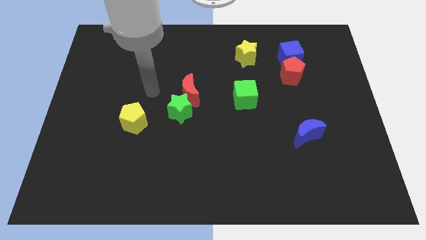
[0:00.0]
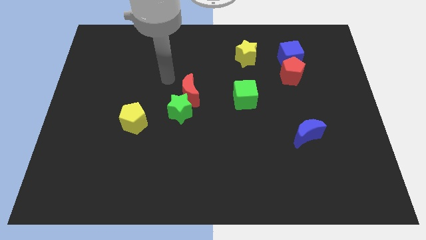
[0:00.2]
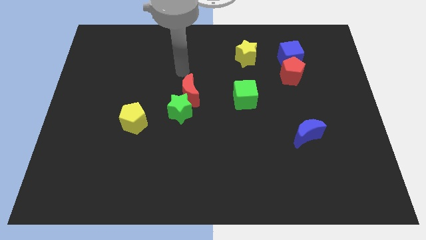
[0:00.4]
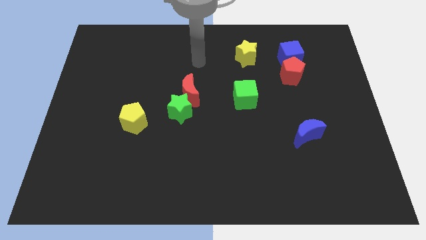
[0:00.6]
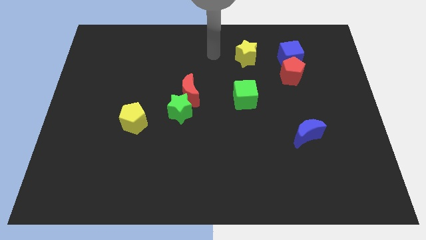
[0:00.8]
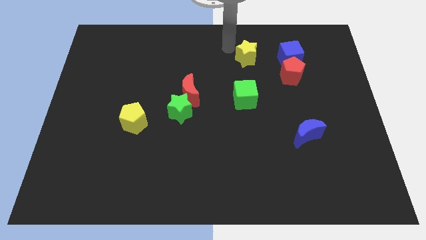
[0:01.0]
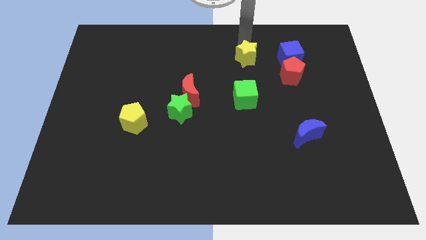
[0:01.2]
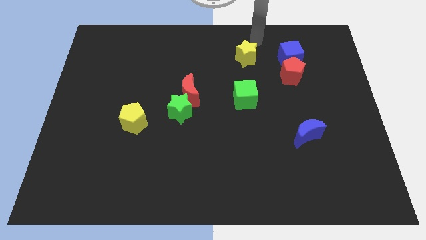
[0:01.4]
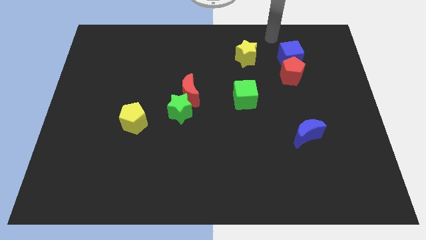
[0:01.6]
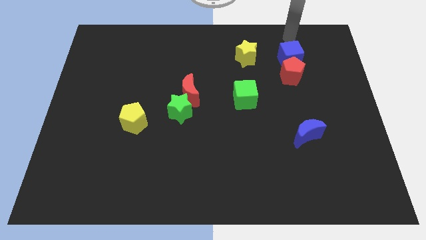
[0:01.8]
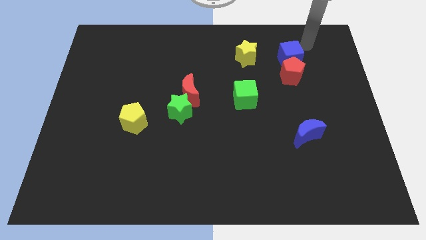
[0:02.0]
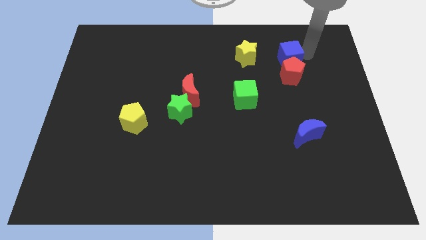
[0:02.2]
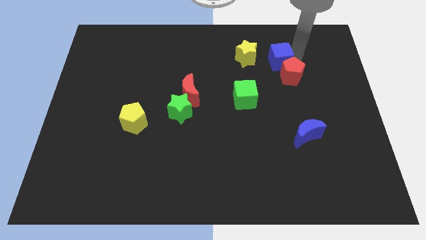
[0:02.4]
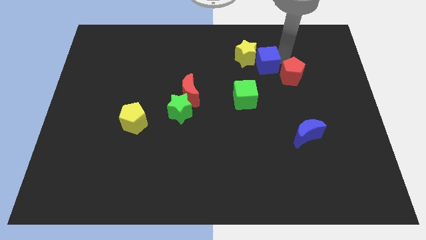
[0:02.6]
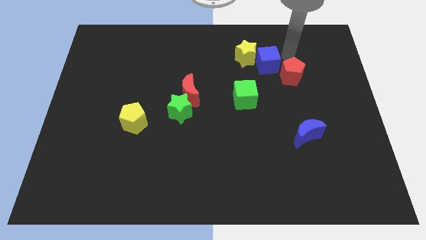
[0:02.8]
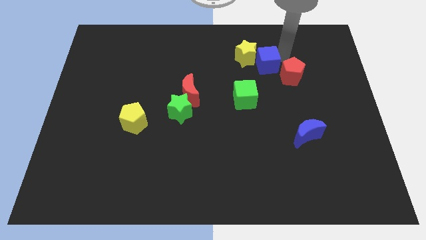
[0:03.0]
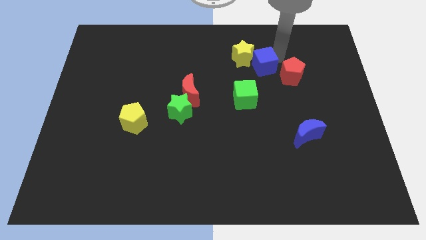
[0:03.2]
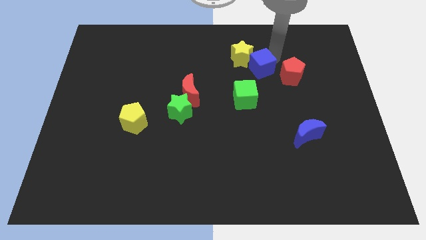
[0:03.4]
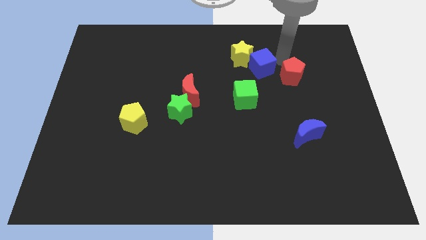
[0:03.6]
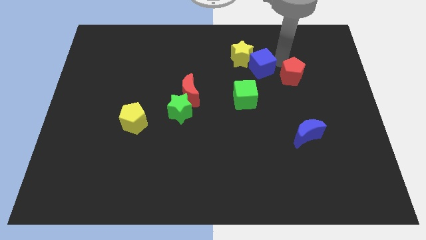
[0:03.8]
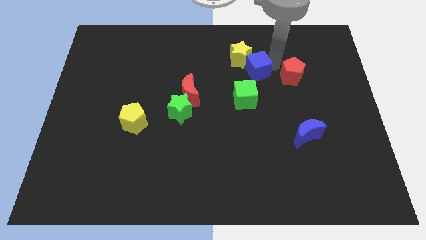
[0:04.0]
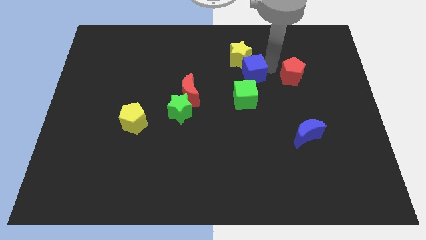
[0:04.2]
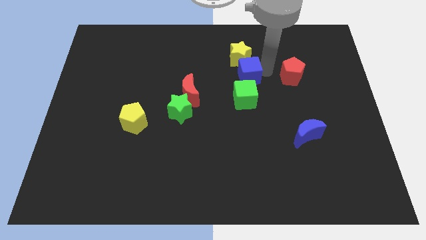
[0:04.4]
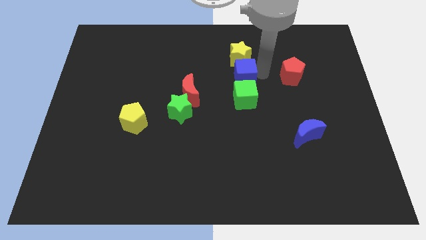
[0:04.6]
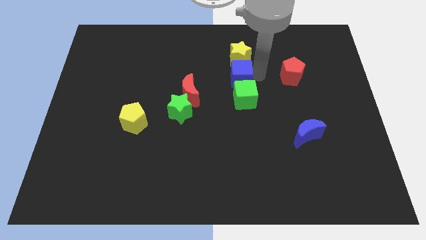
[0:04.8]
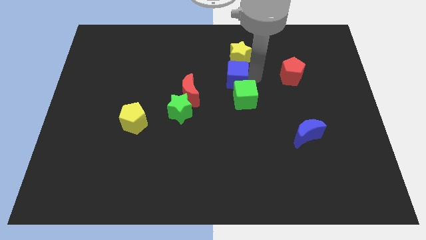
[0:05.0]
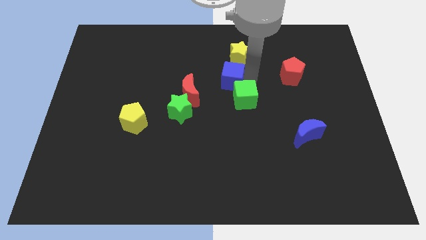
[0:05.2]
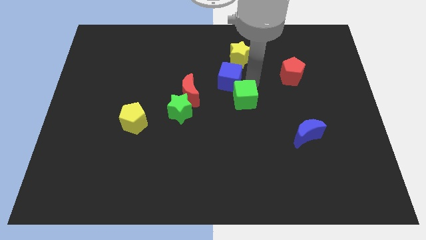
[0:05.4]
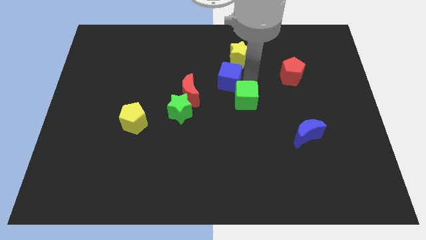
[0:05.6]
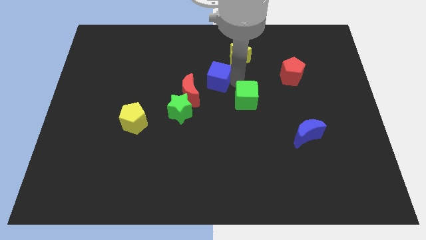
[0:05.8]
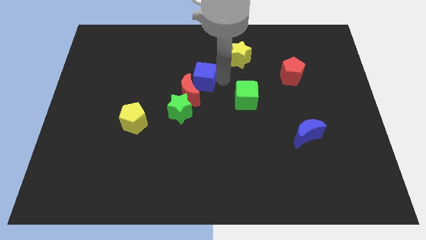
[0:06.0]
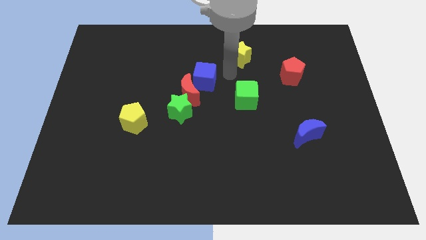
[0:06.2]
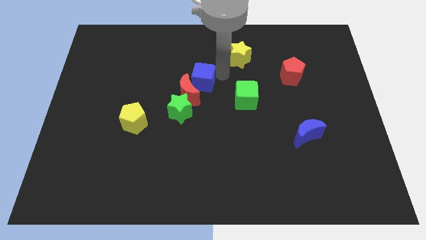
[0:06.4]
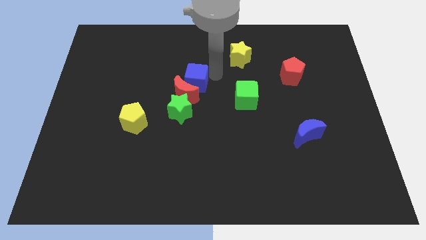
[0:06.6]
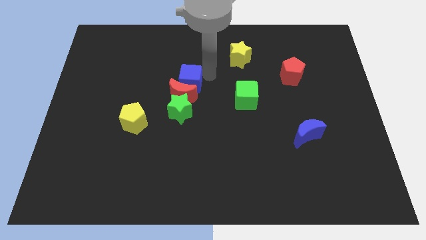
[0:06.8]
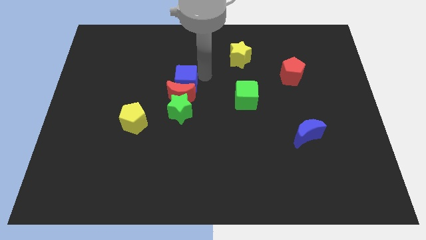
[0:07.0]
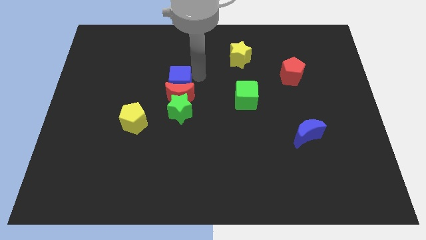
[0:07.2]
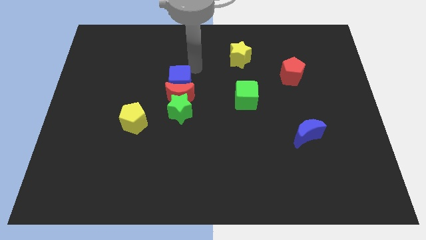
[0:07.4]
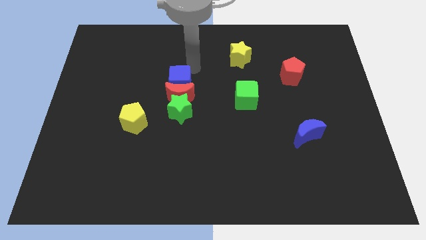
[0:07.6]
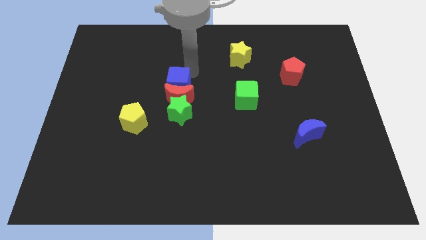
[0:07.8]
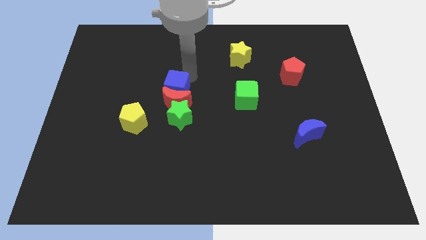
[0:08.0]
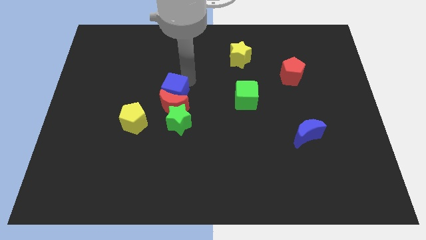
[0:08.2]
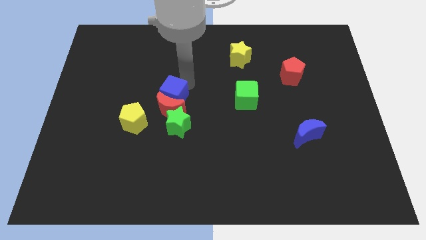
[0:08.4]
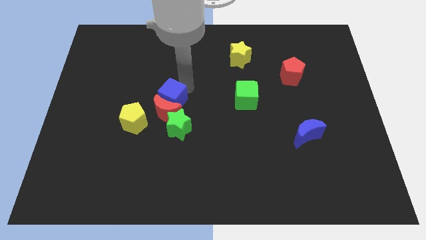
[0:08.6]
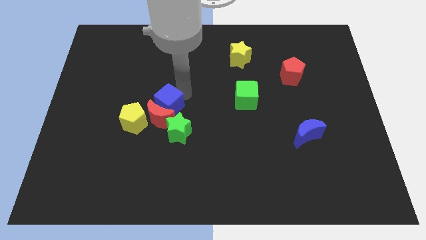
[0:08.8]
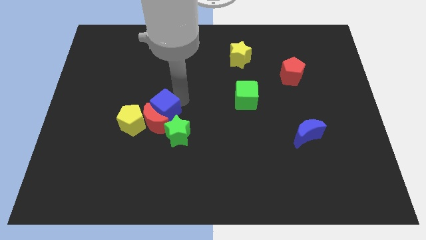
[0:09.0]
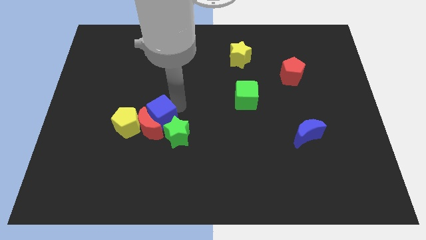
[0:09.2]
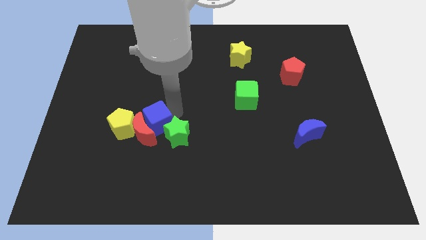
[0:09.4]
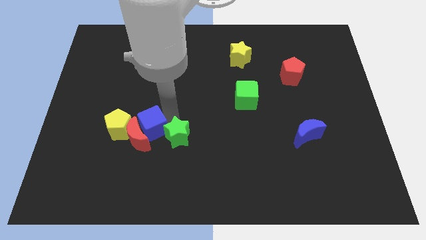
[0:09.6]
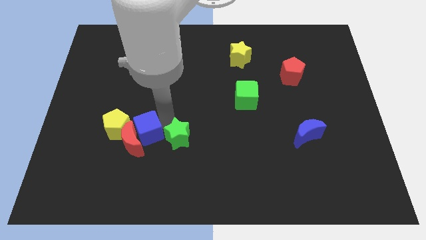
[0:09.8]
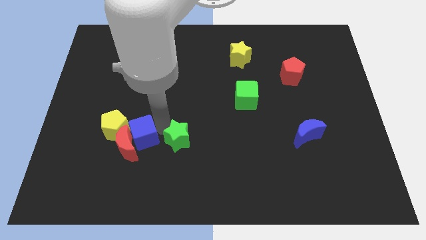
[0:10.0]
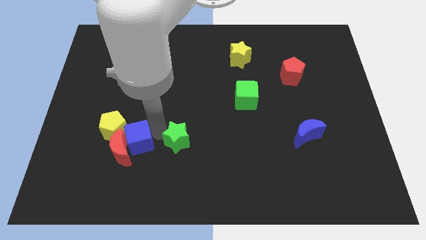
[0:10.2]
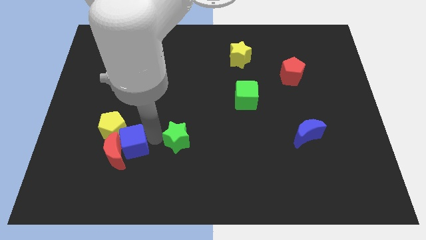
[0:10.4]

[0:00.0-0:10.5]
push the blue cube towards the yellow pentagon

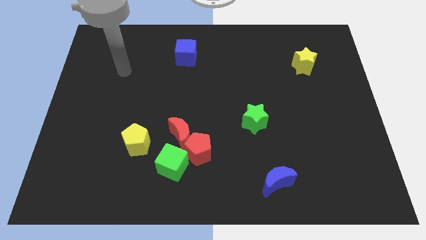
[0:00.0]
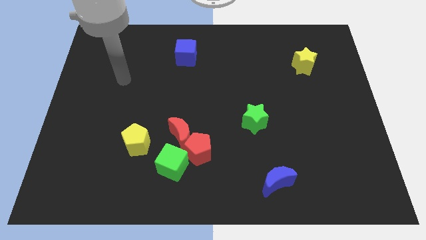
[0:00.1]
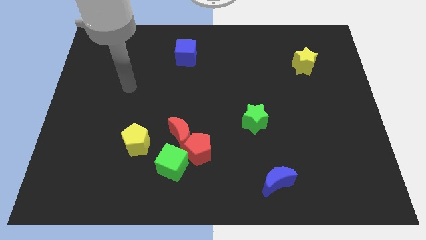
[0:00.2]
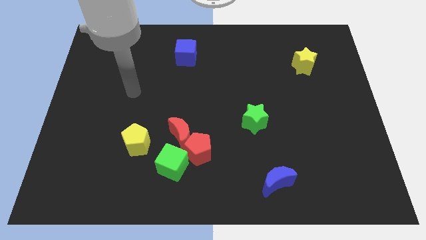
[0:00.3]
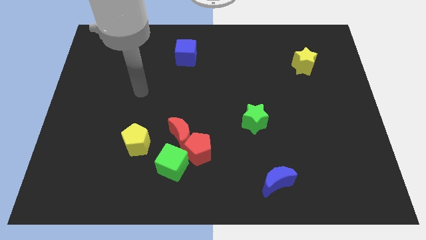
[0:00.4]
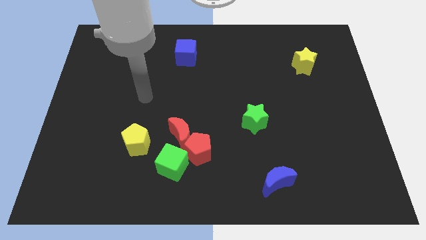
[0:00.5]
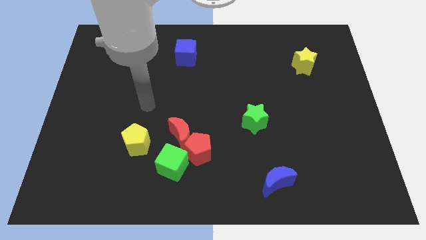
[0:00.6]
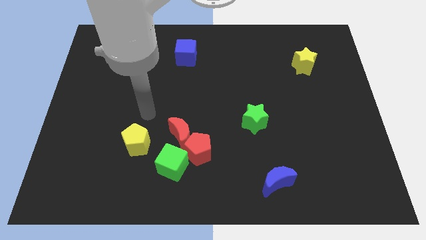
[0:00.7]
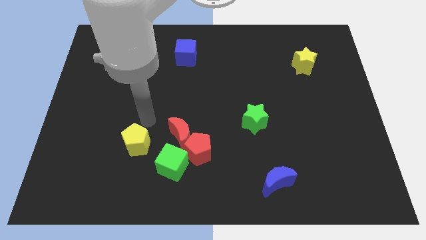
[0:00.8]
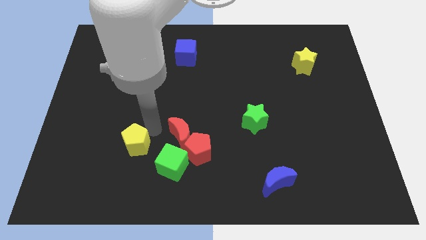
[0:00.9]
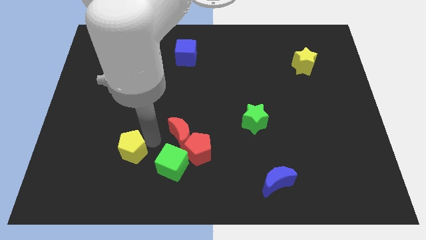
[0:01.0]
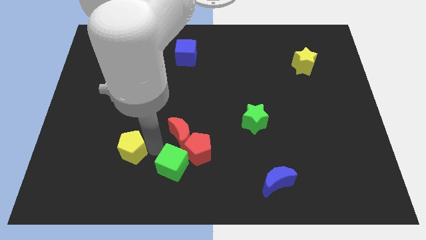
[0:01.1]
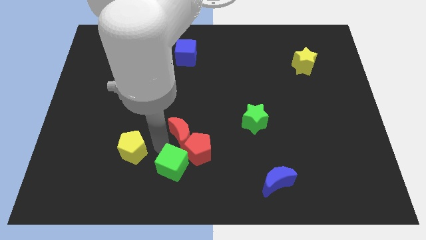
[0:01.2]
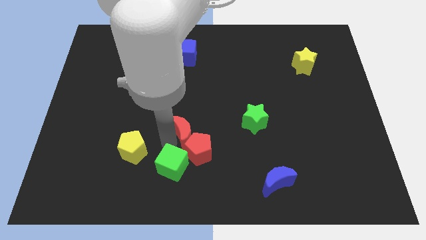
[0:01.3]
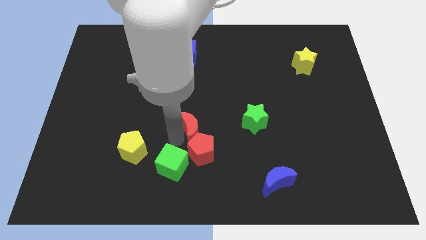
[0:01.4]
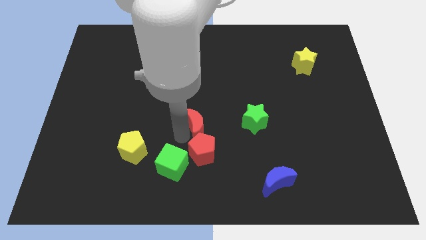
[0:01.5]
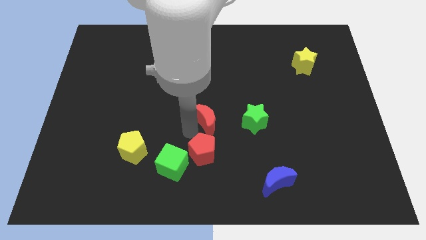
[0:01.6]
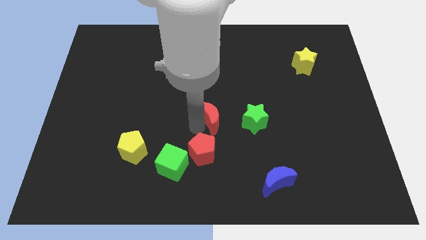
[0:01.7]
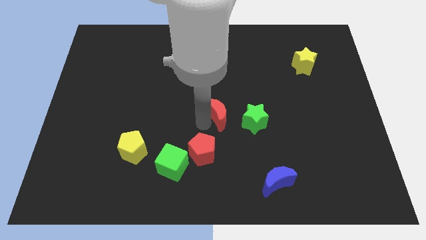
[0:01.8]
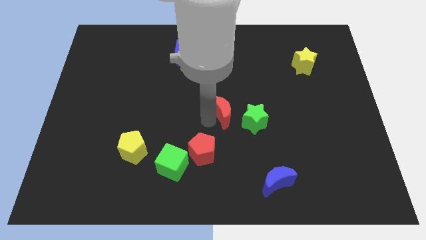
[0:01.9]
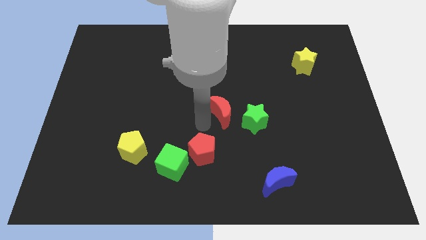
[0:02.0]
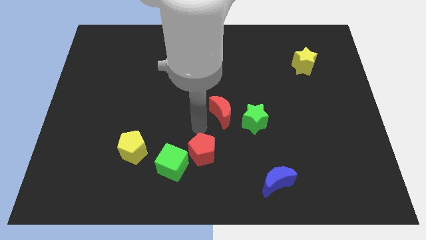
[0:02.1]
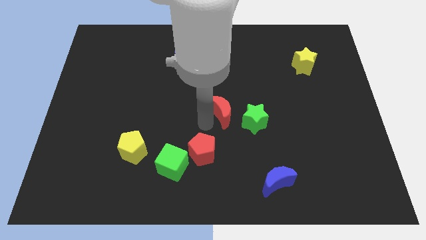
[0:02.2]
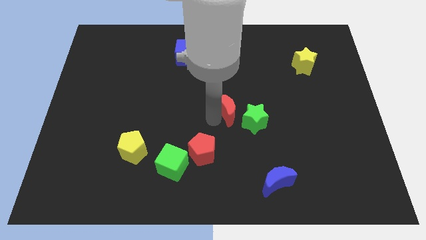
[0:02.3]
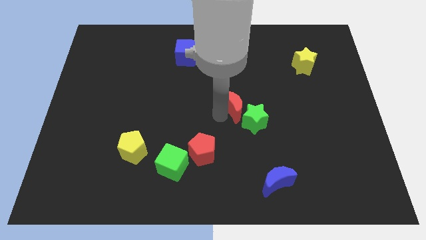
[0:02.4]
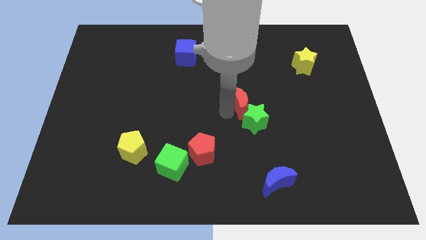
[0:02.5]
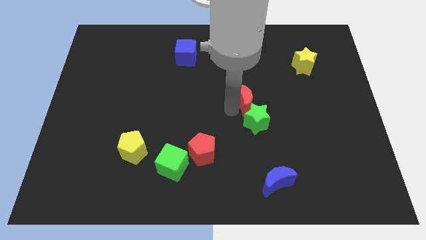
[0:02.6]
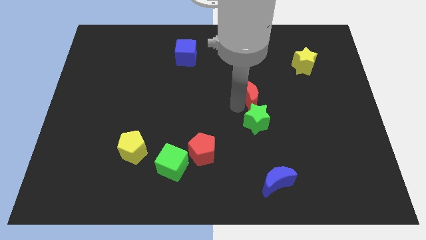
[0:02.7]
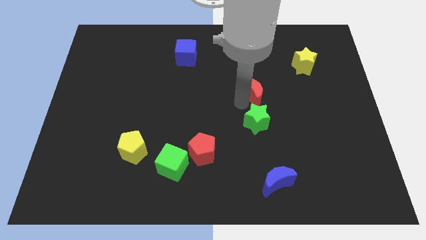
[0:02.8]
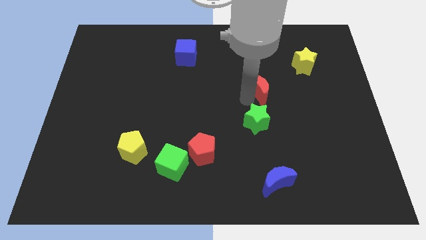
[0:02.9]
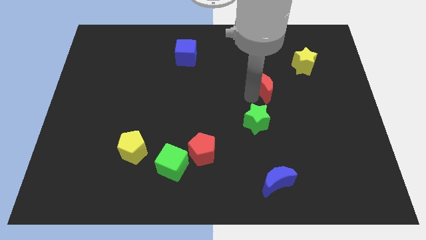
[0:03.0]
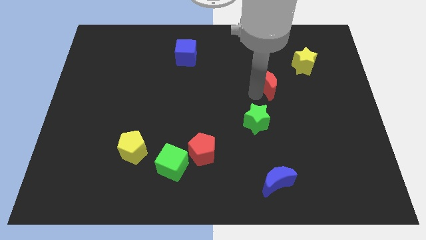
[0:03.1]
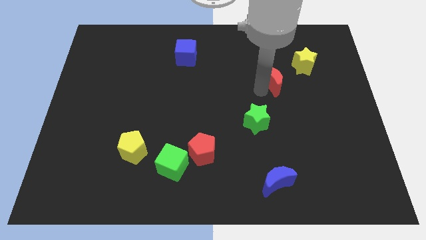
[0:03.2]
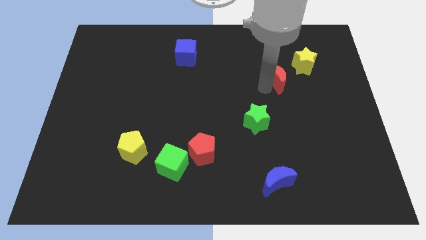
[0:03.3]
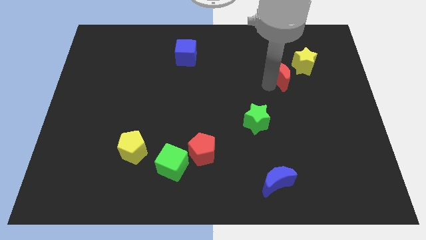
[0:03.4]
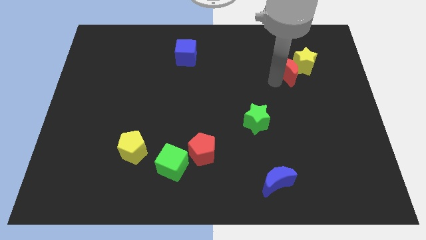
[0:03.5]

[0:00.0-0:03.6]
push the red moon towards the yellow star
